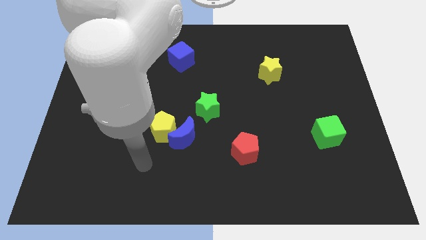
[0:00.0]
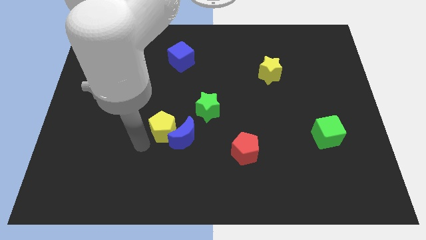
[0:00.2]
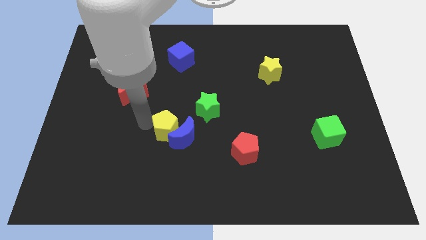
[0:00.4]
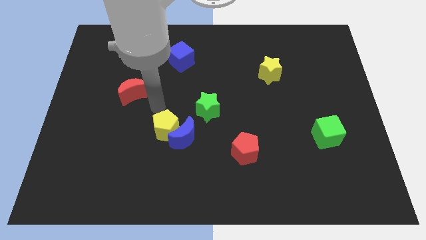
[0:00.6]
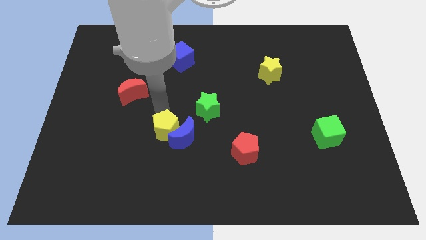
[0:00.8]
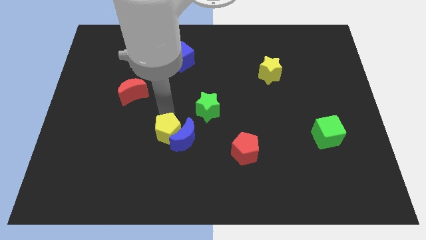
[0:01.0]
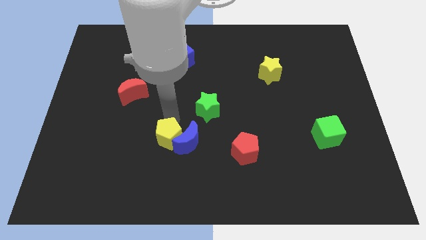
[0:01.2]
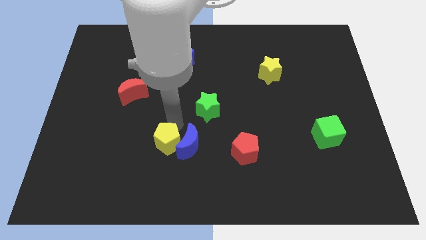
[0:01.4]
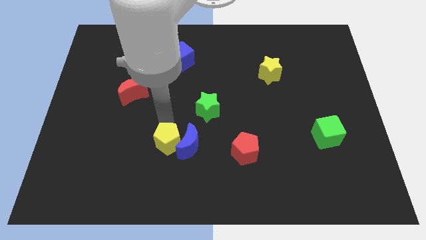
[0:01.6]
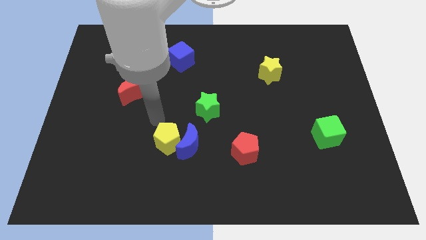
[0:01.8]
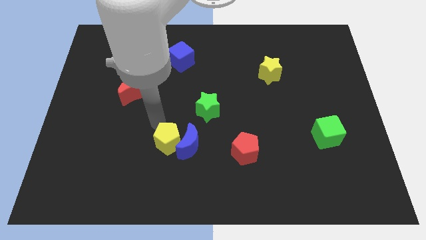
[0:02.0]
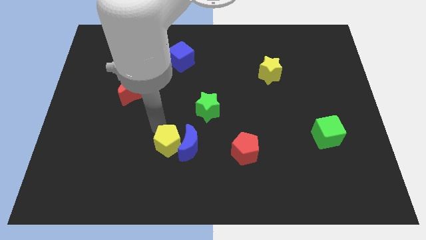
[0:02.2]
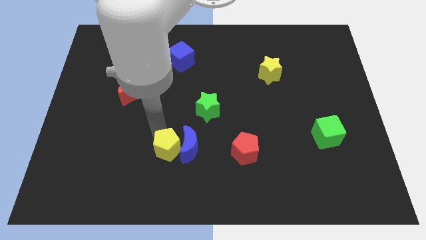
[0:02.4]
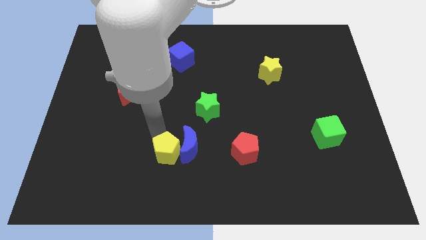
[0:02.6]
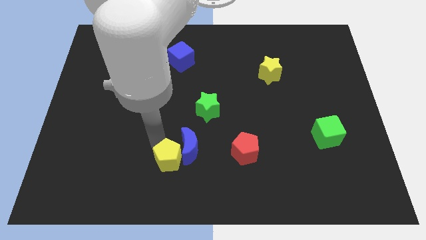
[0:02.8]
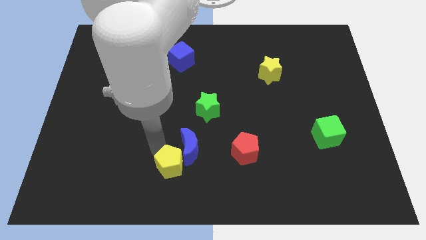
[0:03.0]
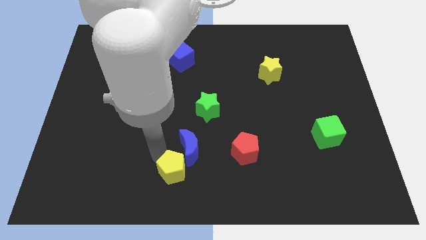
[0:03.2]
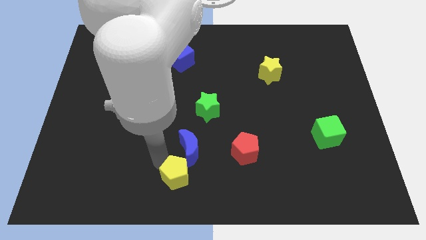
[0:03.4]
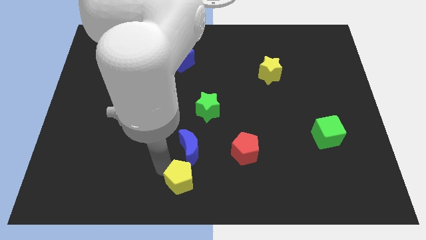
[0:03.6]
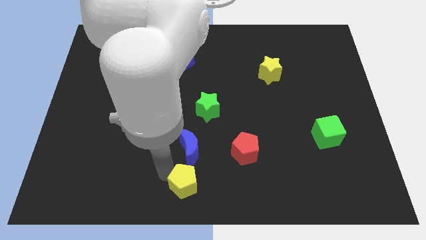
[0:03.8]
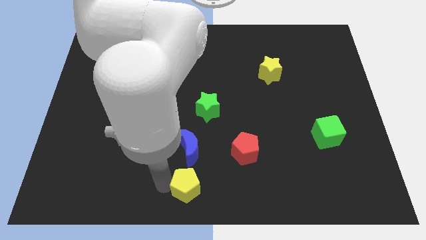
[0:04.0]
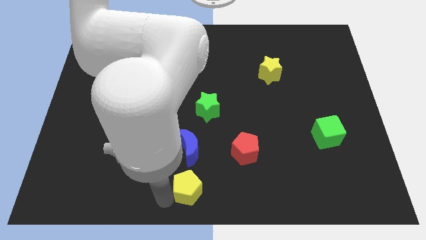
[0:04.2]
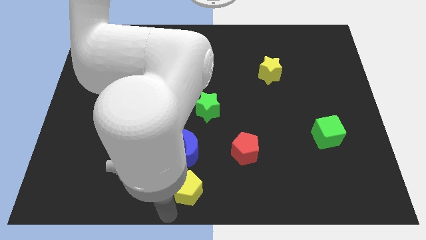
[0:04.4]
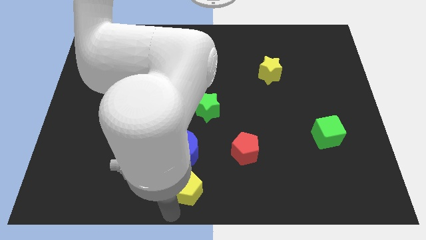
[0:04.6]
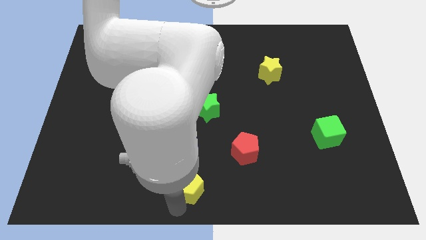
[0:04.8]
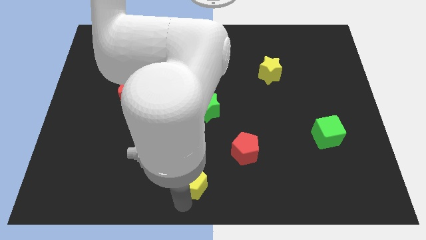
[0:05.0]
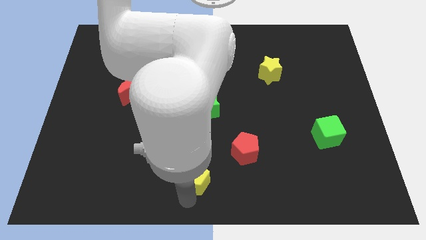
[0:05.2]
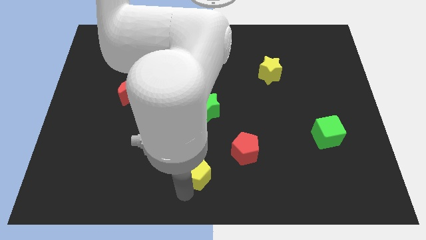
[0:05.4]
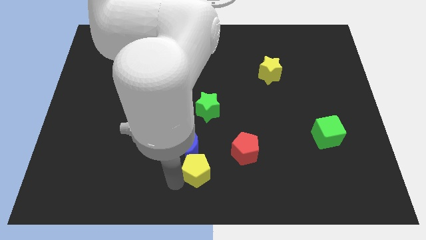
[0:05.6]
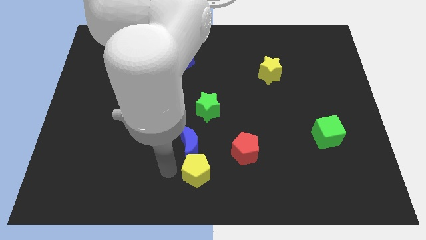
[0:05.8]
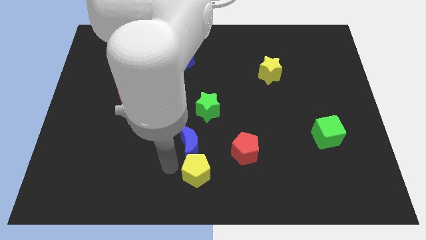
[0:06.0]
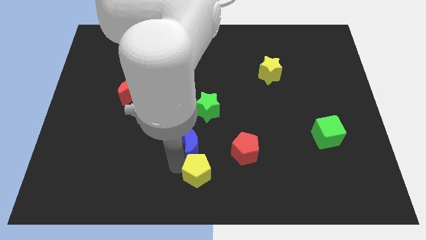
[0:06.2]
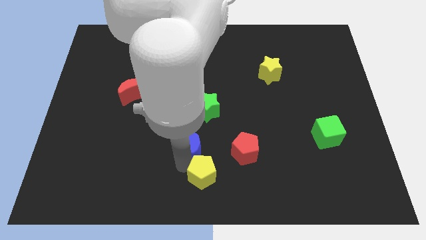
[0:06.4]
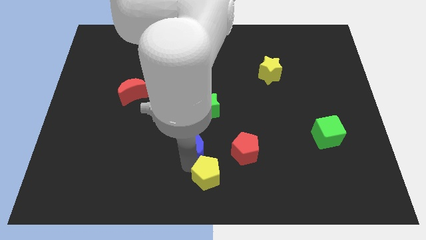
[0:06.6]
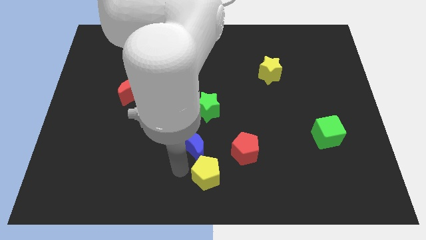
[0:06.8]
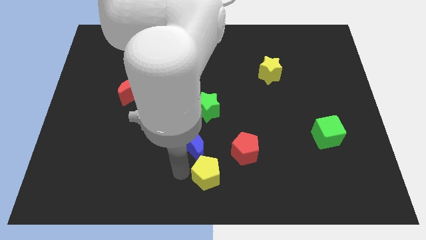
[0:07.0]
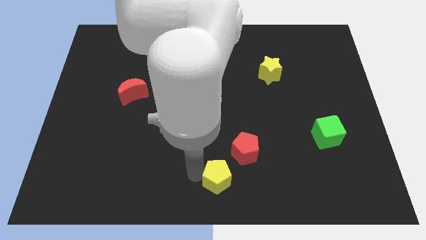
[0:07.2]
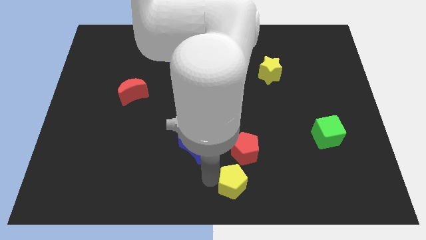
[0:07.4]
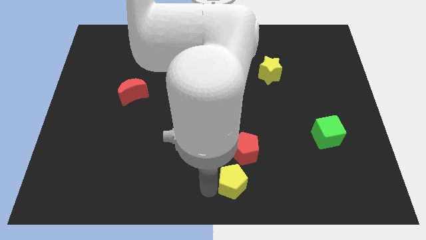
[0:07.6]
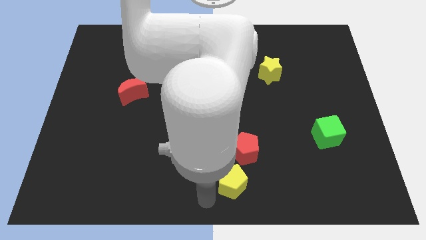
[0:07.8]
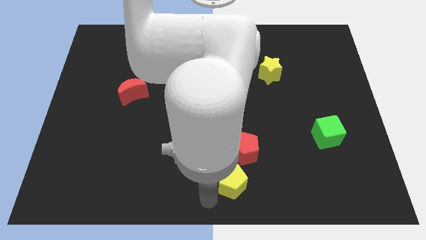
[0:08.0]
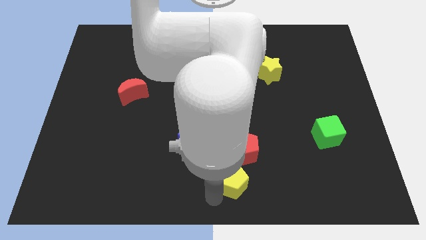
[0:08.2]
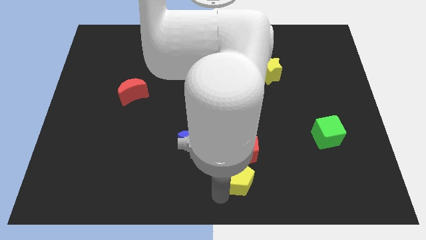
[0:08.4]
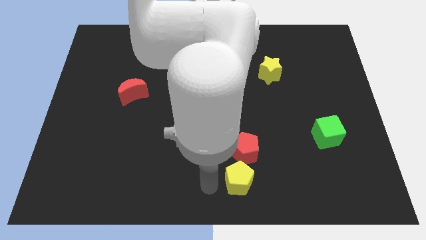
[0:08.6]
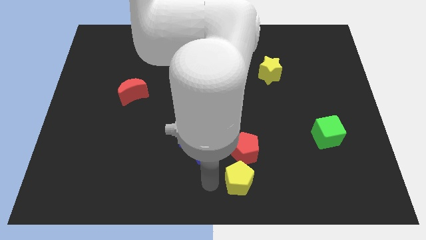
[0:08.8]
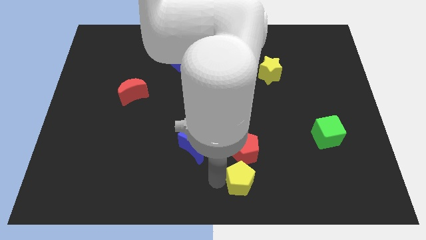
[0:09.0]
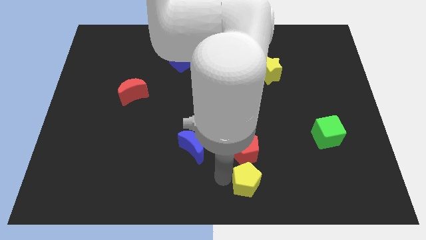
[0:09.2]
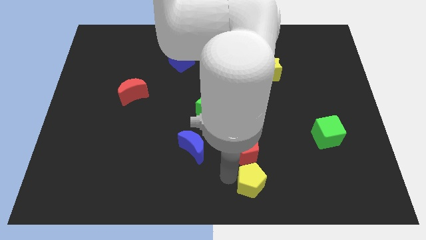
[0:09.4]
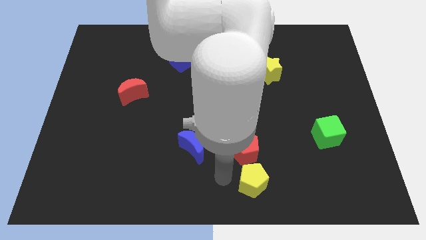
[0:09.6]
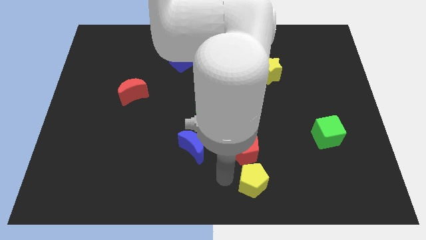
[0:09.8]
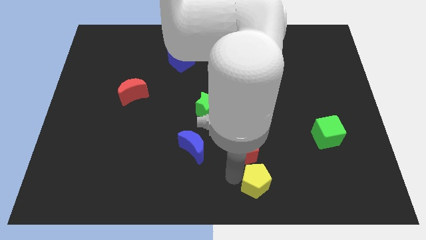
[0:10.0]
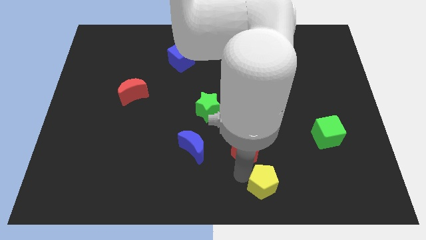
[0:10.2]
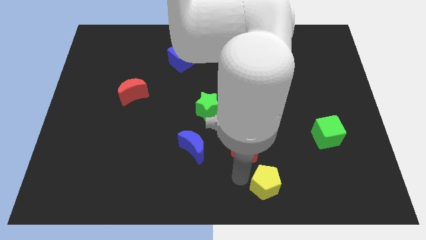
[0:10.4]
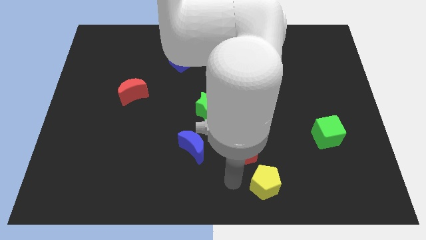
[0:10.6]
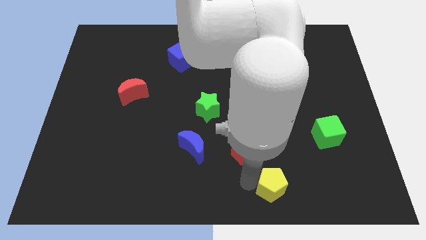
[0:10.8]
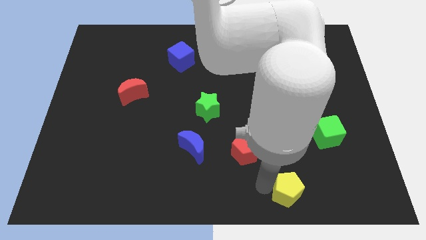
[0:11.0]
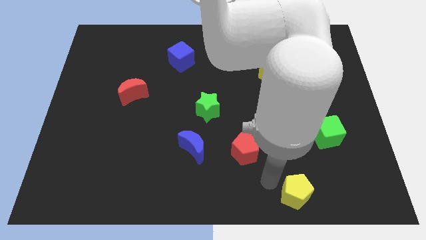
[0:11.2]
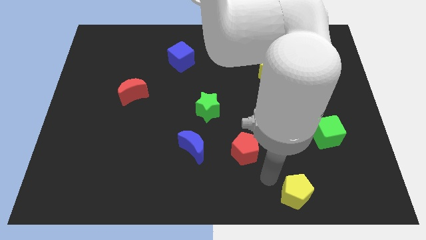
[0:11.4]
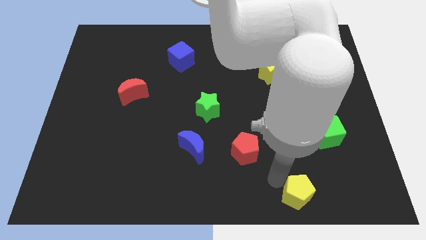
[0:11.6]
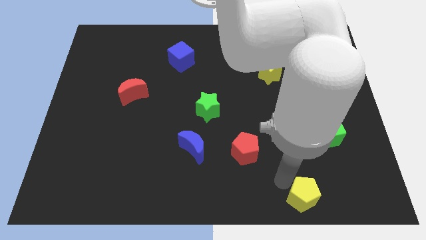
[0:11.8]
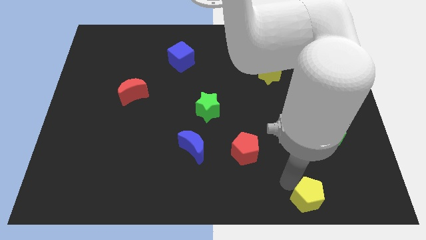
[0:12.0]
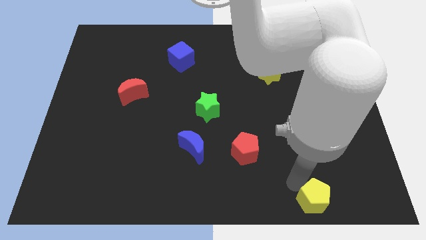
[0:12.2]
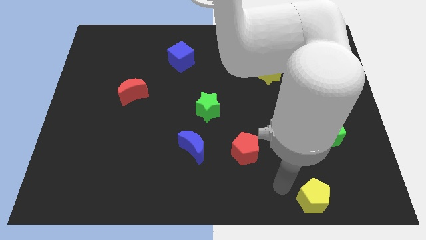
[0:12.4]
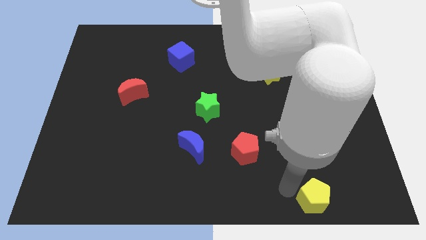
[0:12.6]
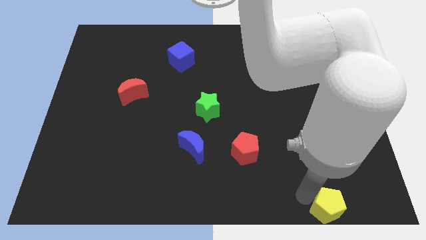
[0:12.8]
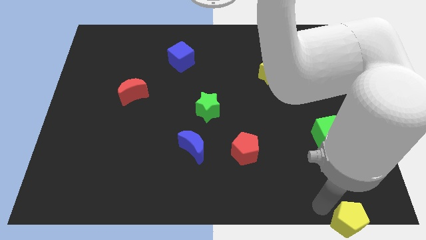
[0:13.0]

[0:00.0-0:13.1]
move the yellow pentagon to the bottom right corner
